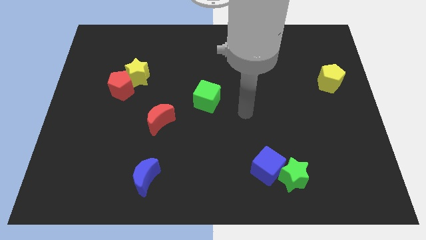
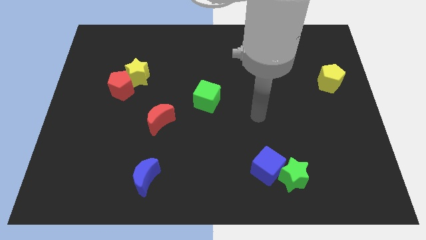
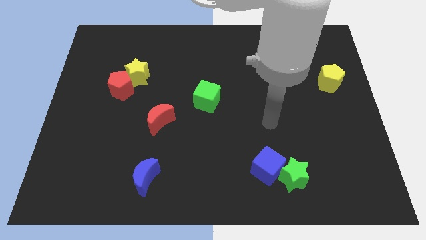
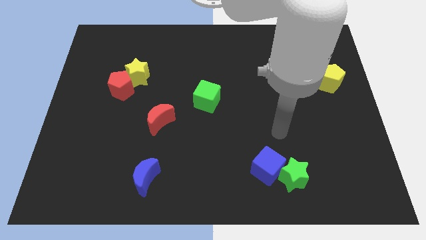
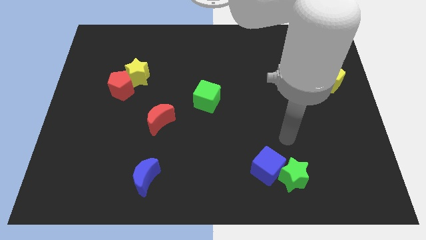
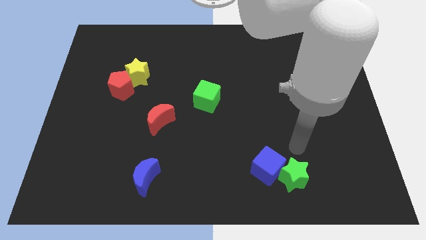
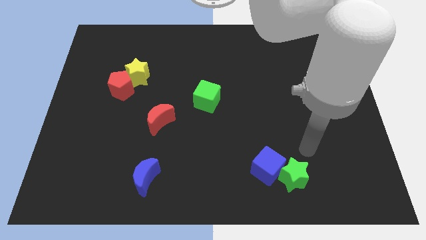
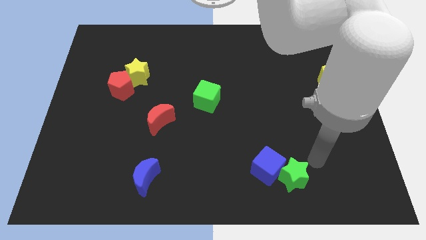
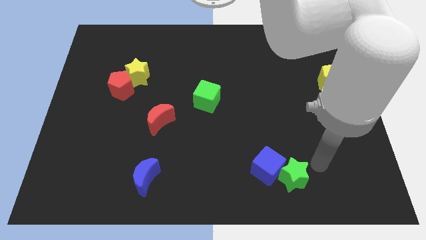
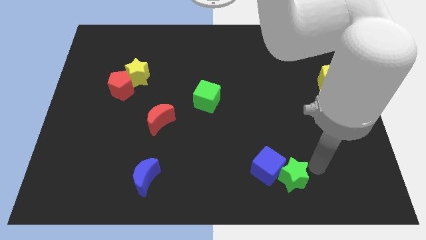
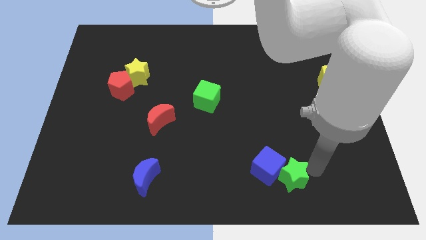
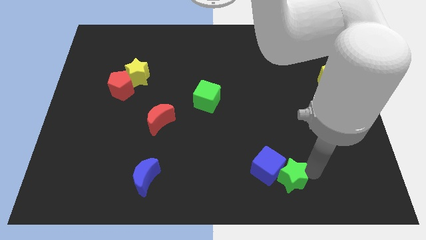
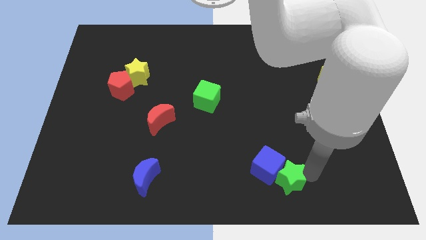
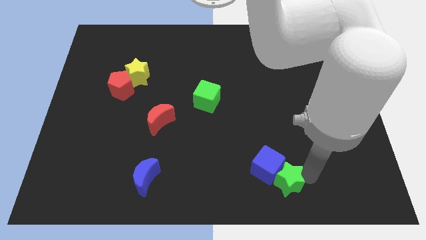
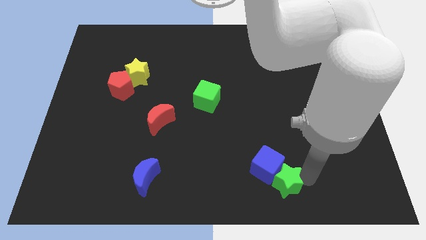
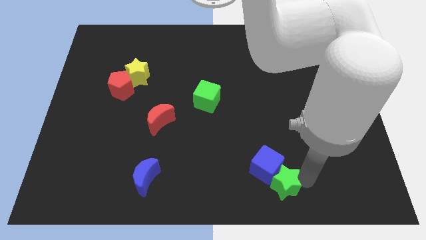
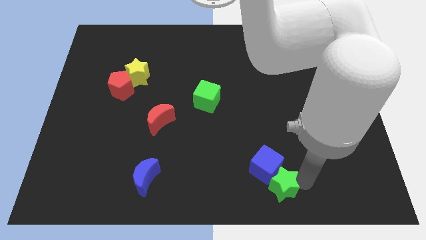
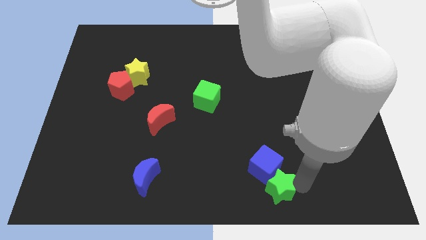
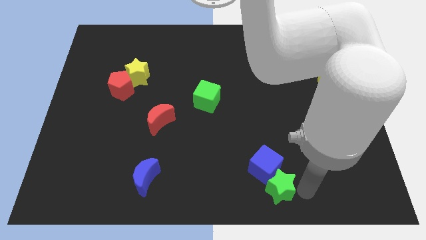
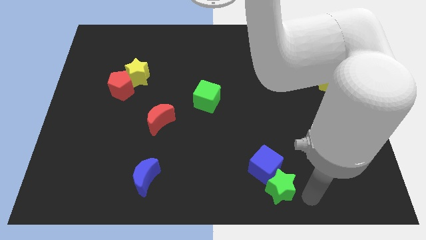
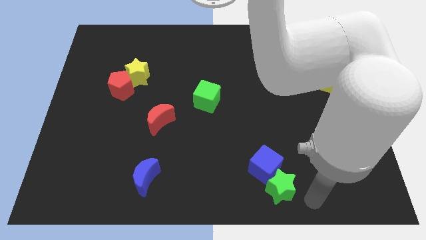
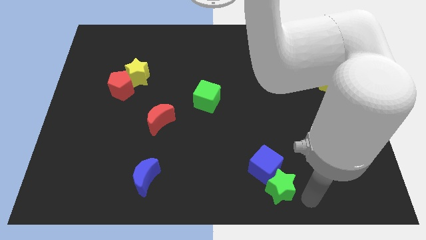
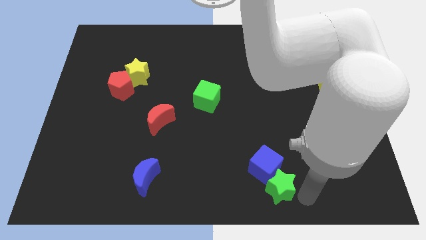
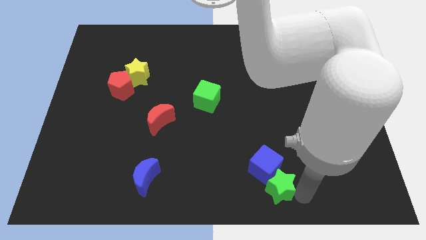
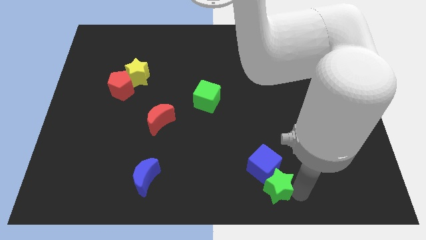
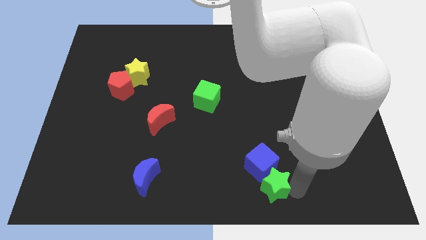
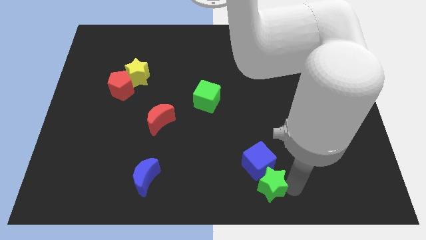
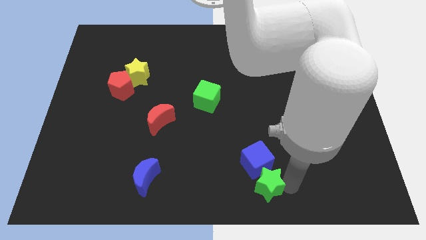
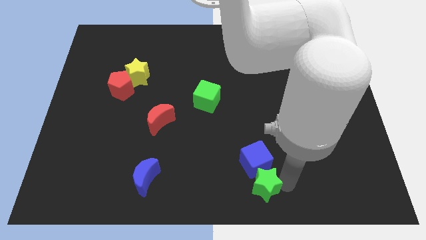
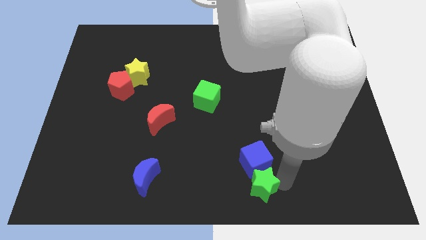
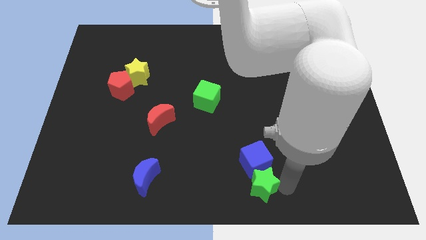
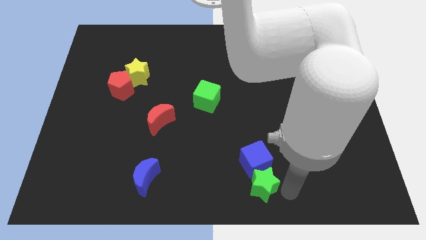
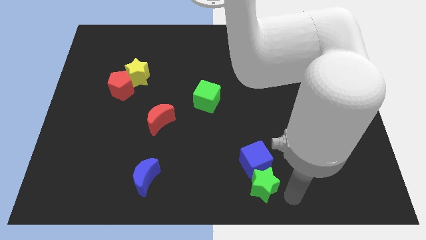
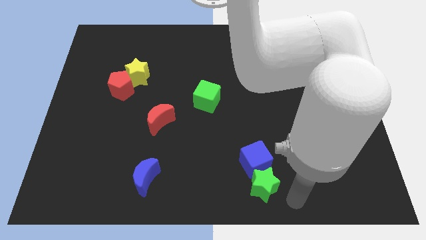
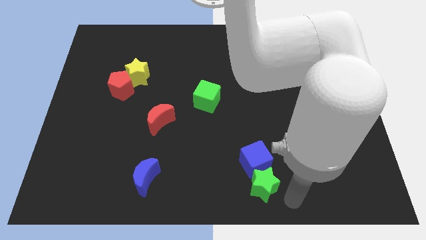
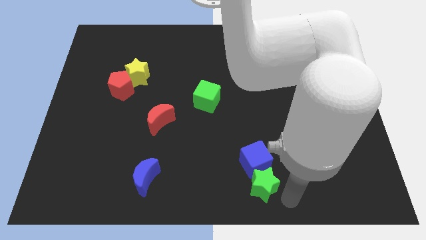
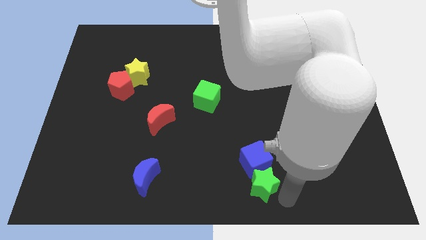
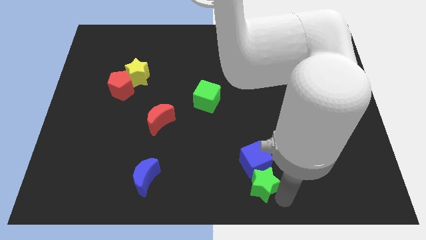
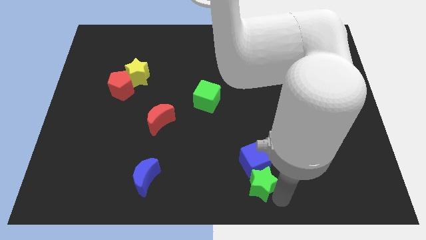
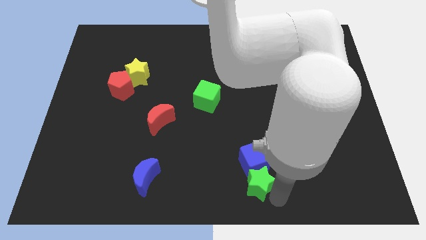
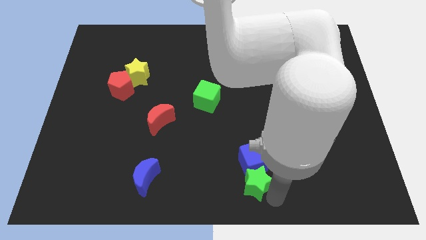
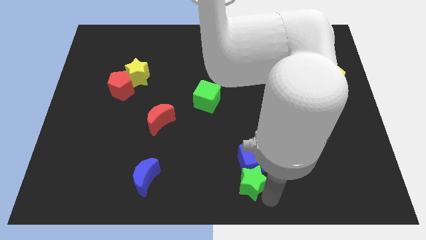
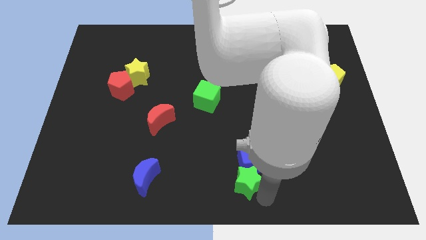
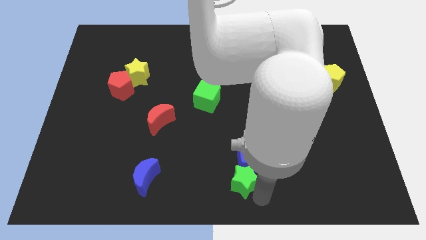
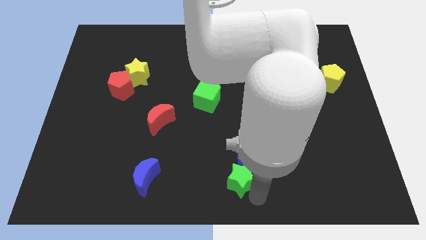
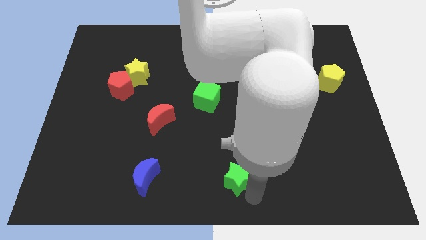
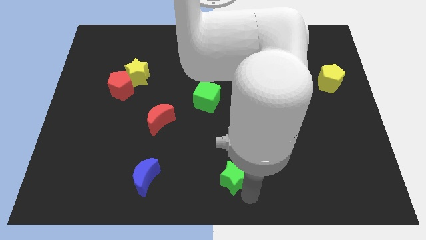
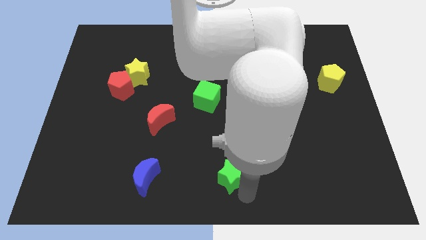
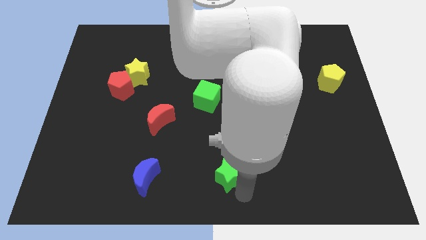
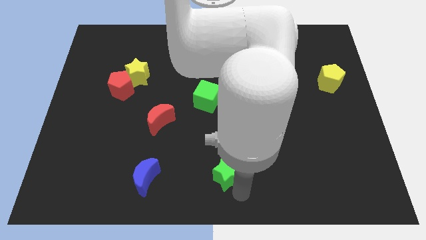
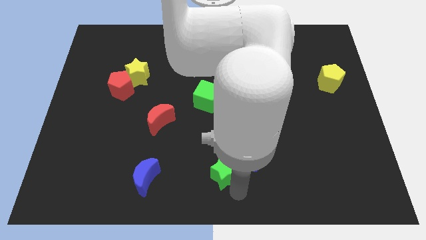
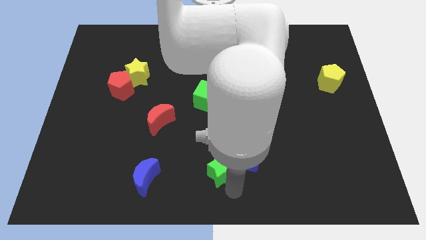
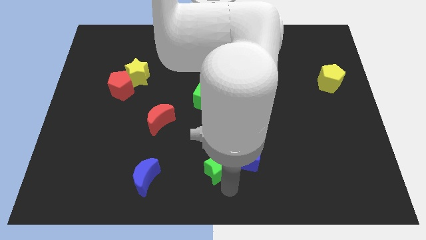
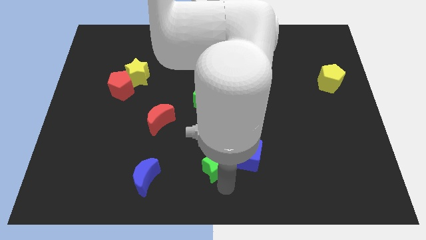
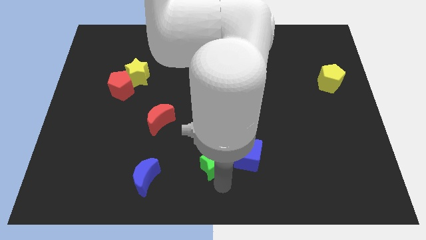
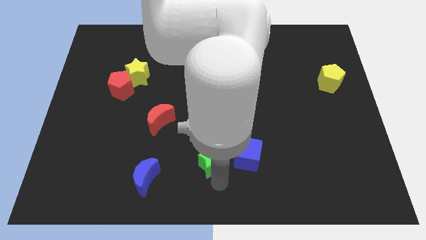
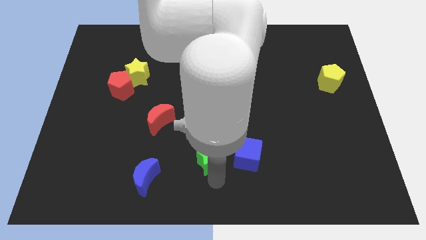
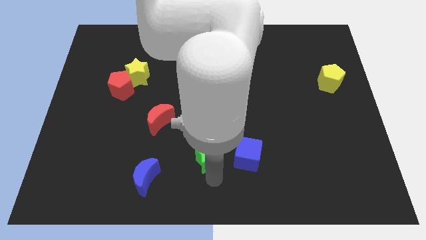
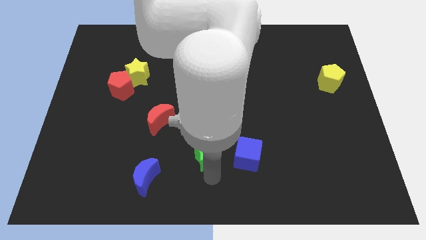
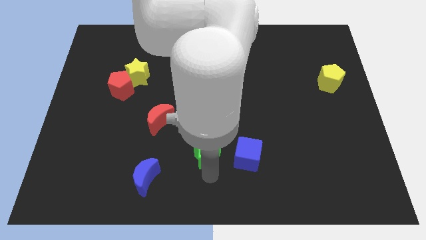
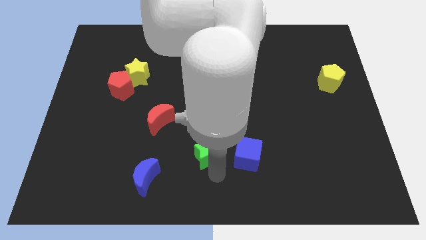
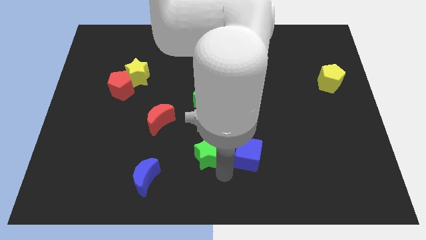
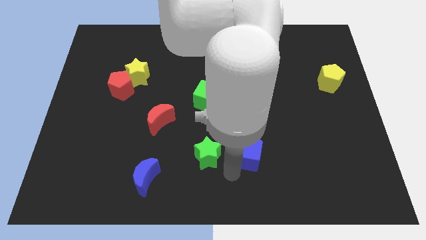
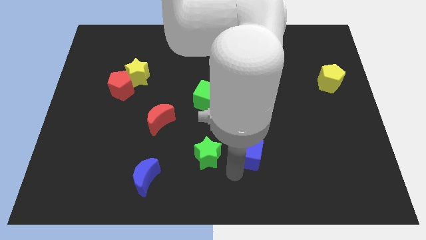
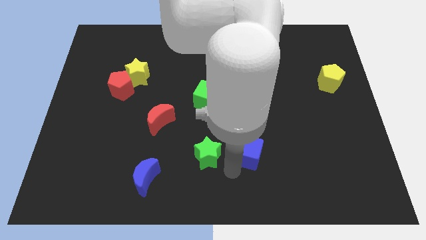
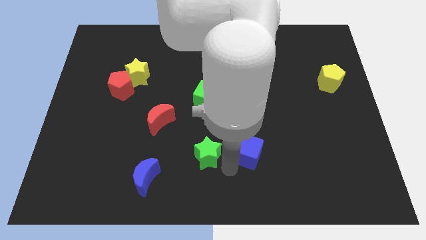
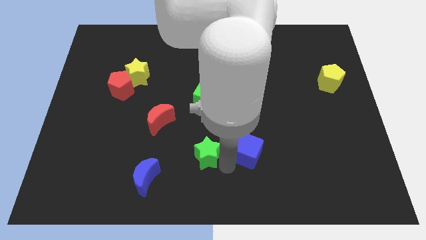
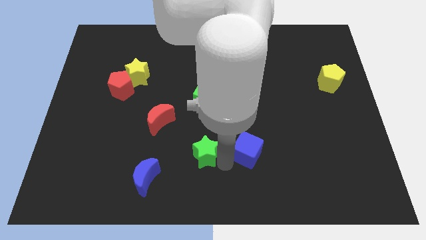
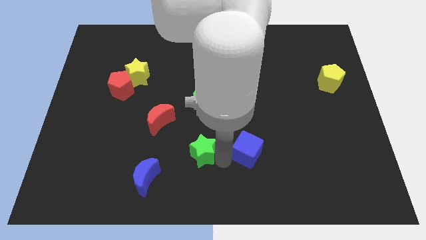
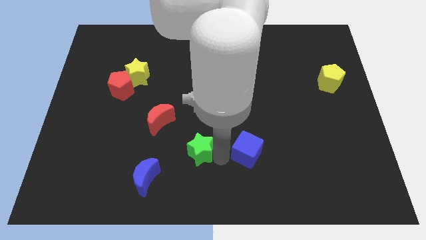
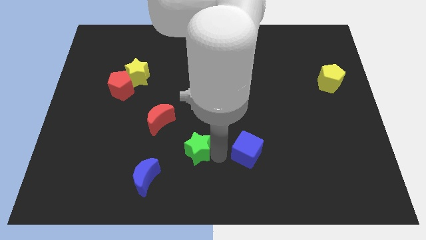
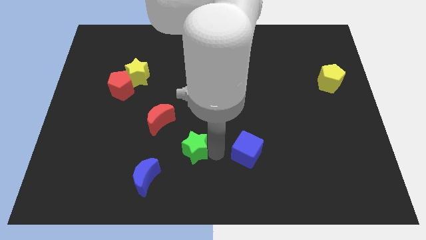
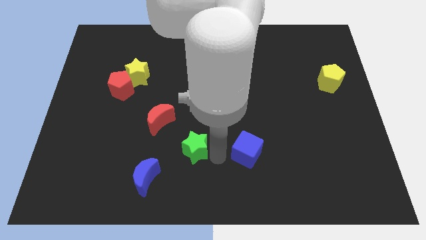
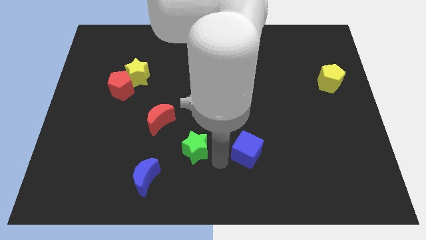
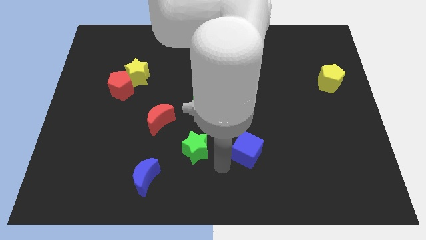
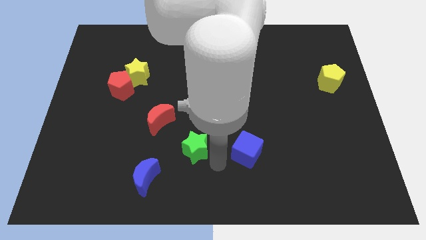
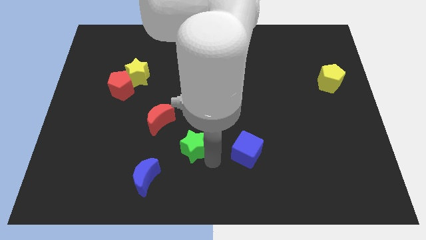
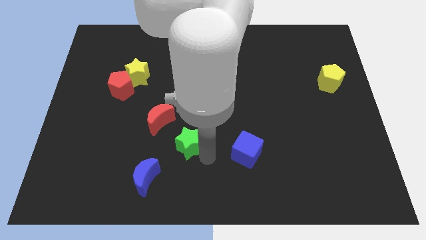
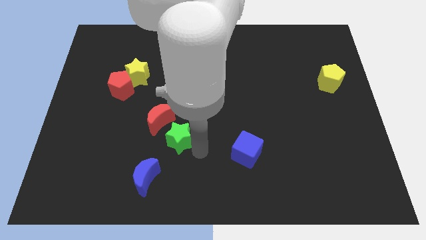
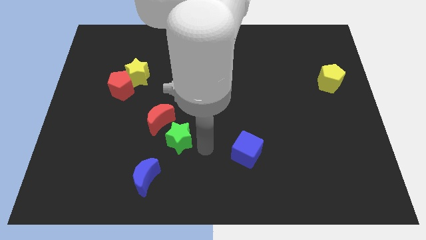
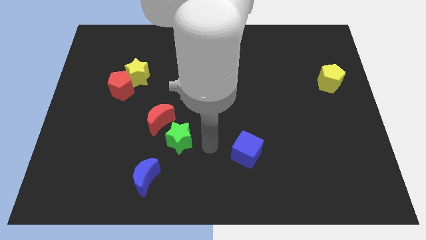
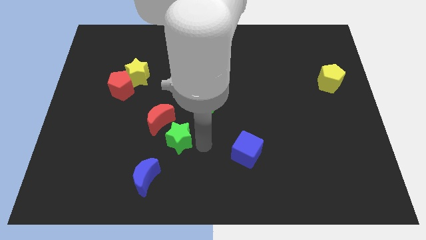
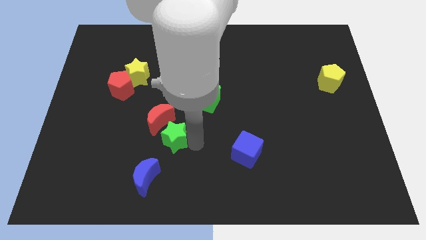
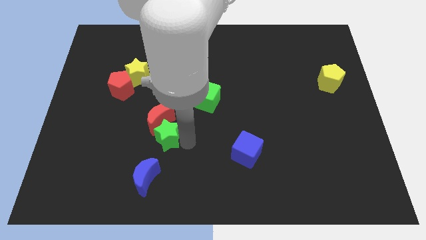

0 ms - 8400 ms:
push the green star above the blue moon
